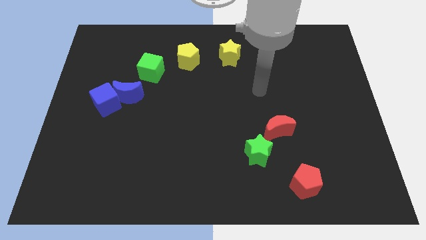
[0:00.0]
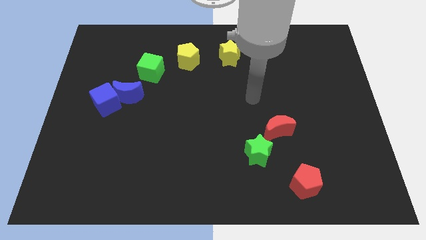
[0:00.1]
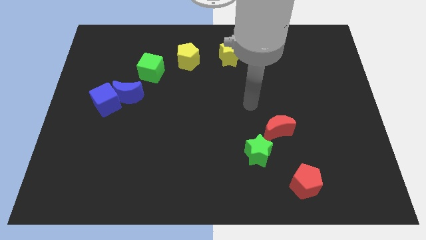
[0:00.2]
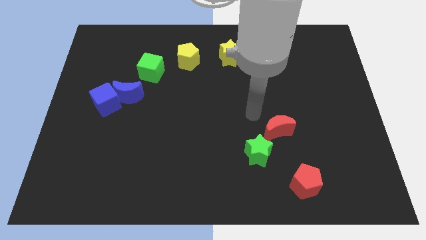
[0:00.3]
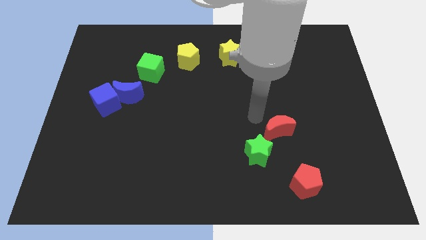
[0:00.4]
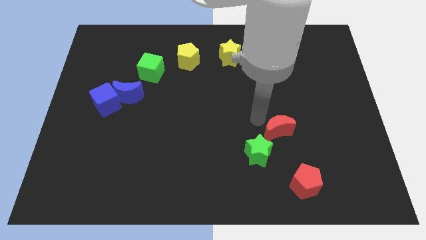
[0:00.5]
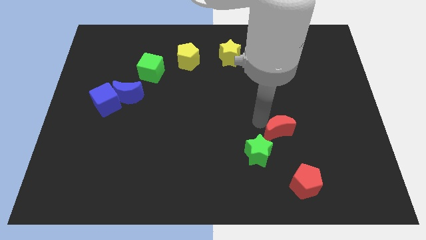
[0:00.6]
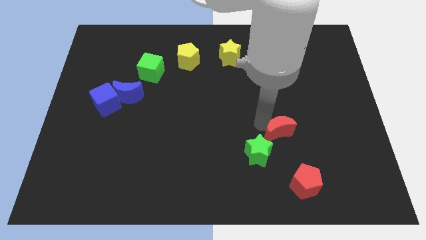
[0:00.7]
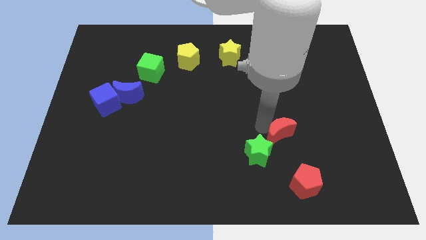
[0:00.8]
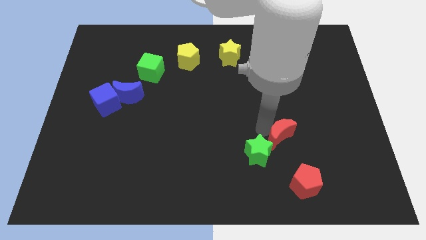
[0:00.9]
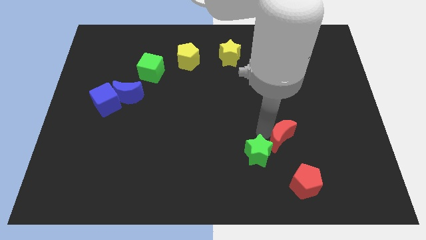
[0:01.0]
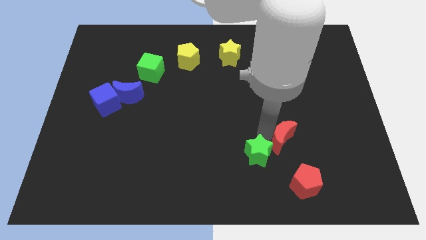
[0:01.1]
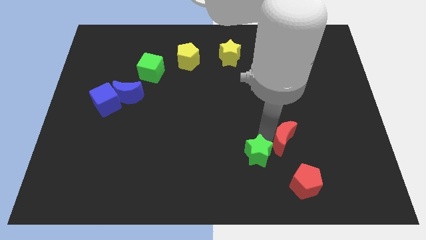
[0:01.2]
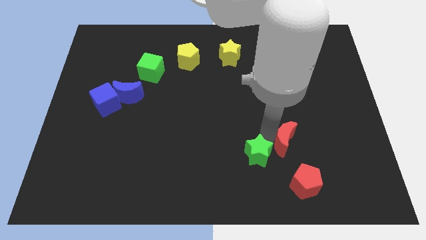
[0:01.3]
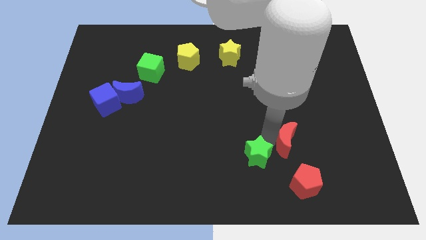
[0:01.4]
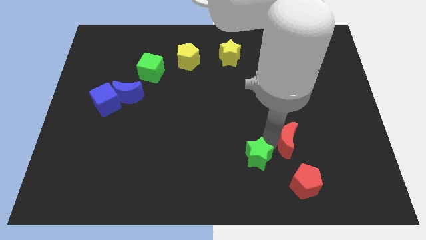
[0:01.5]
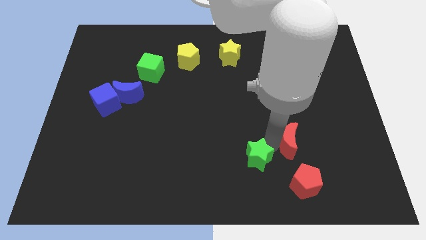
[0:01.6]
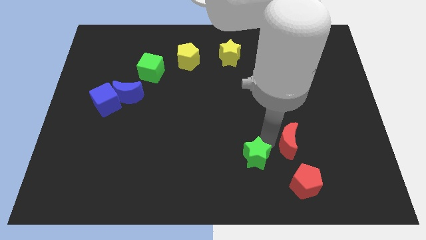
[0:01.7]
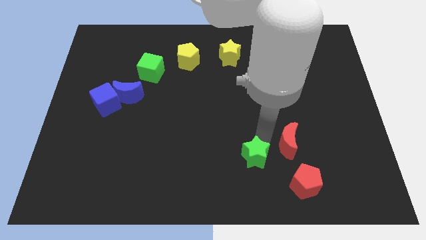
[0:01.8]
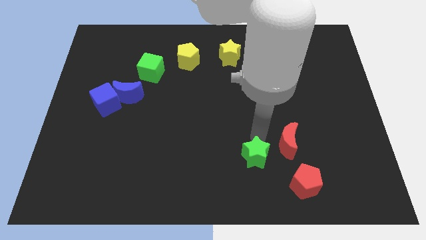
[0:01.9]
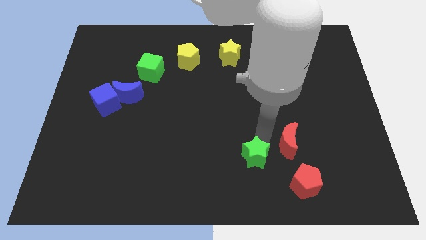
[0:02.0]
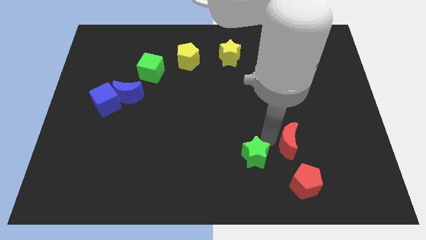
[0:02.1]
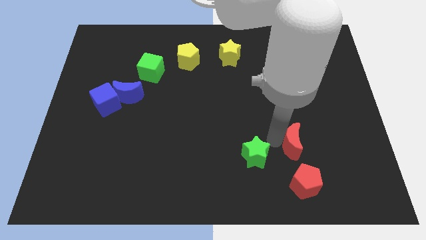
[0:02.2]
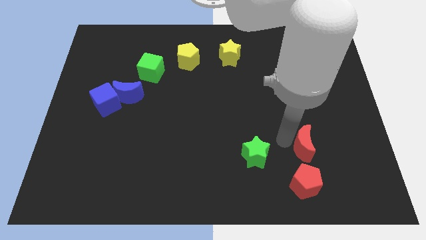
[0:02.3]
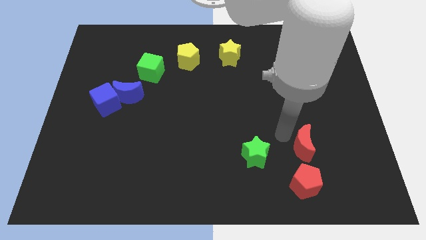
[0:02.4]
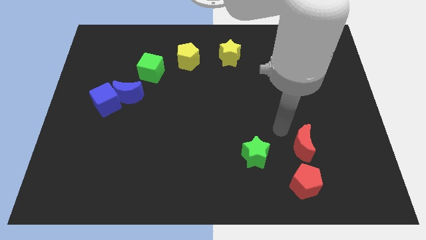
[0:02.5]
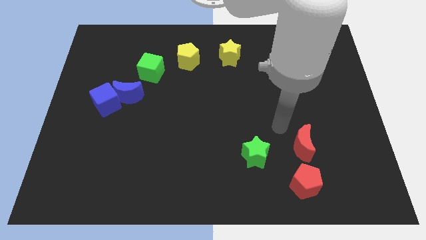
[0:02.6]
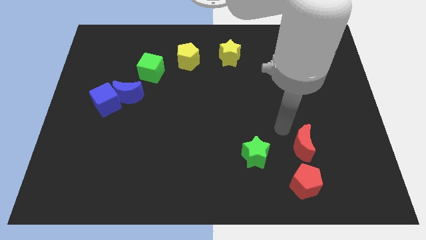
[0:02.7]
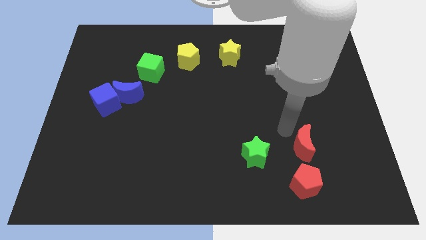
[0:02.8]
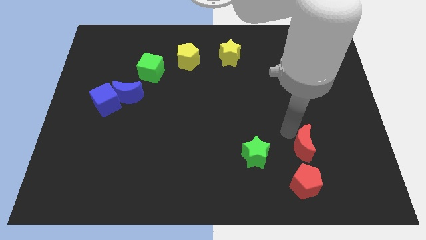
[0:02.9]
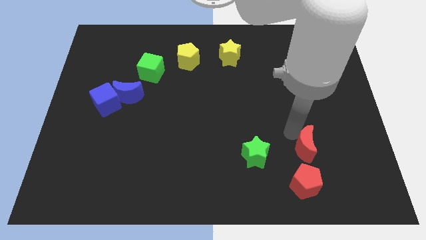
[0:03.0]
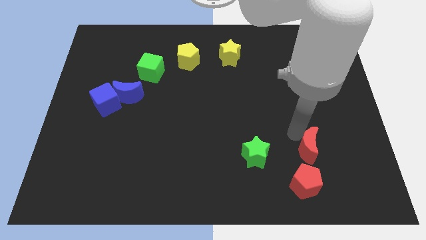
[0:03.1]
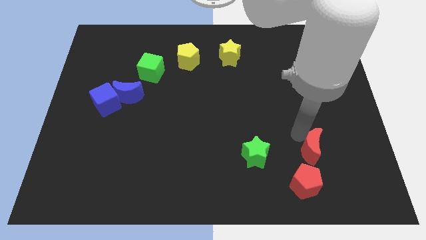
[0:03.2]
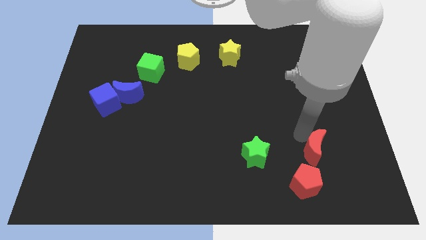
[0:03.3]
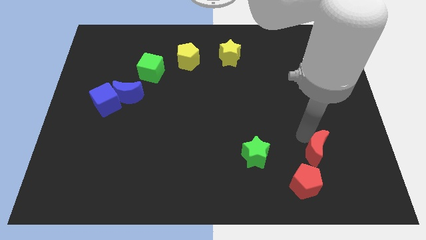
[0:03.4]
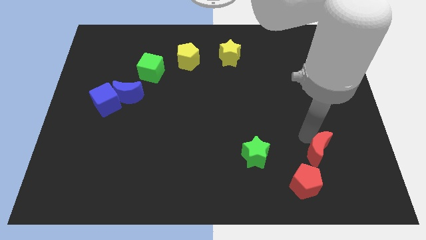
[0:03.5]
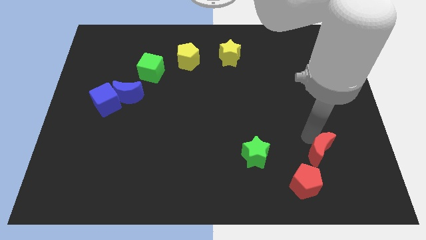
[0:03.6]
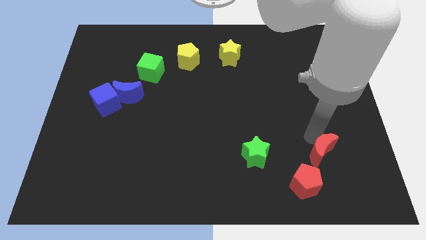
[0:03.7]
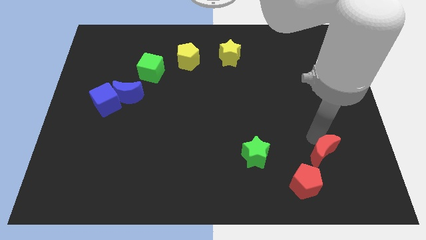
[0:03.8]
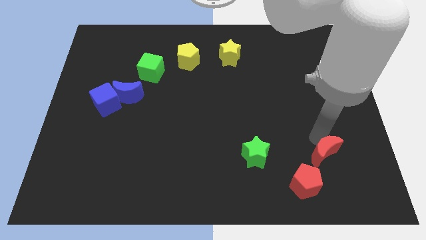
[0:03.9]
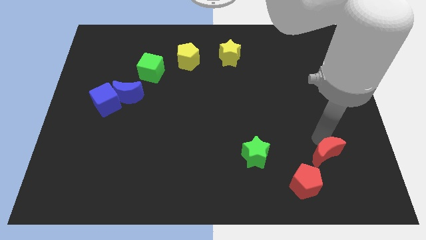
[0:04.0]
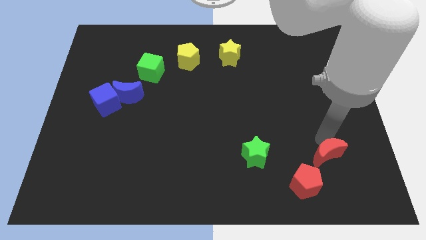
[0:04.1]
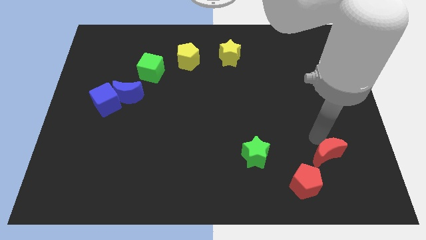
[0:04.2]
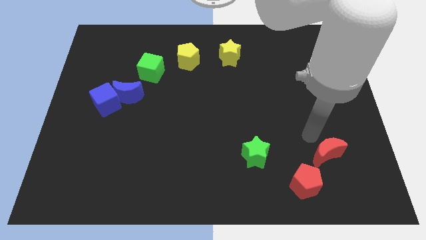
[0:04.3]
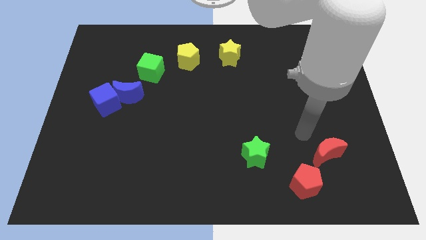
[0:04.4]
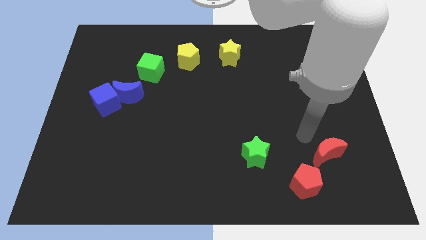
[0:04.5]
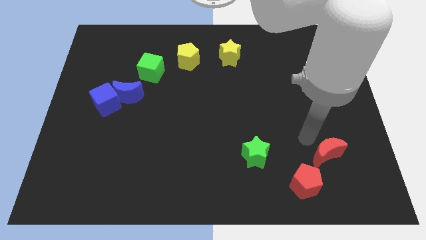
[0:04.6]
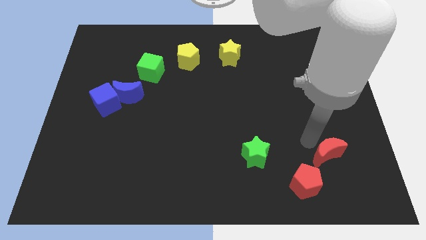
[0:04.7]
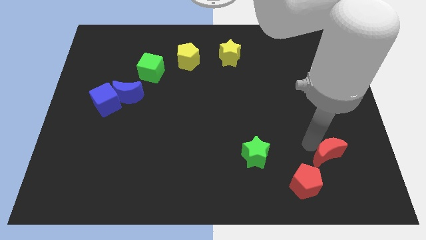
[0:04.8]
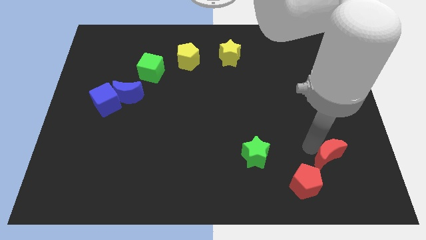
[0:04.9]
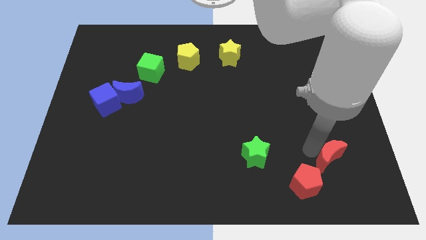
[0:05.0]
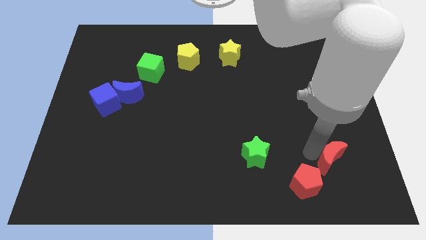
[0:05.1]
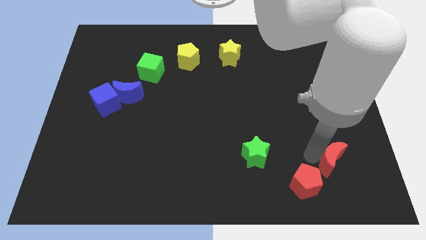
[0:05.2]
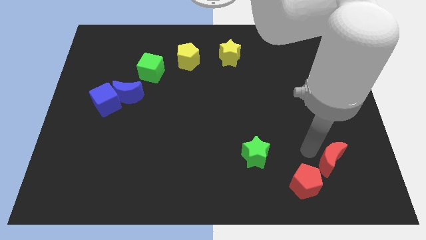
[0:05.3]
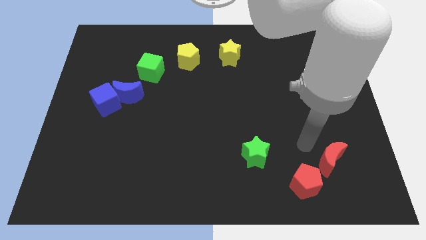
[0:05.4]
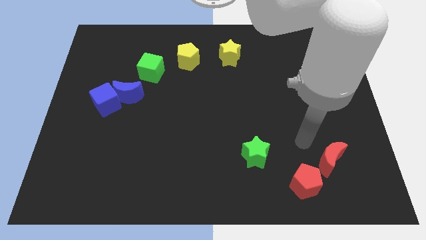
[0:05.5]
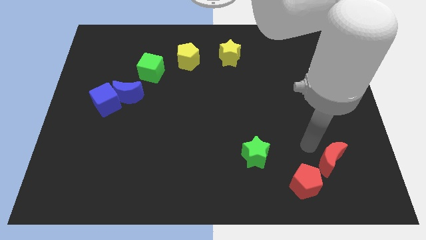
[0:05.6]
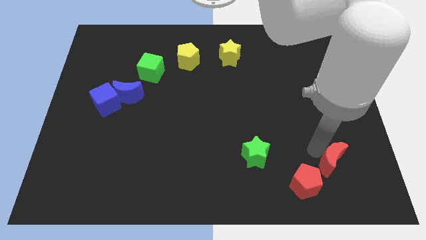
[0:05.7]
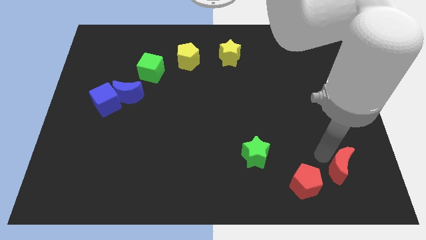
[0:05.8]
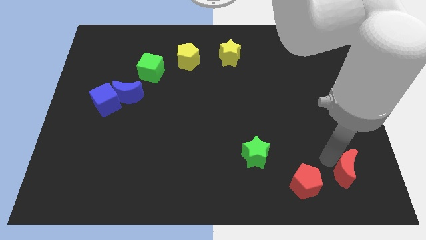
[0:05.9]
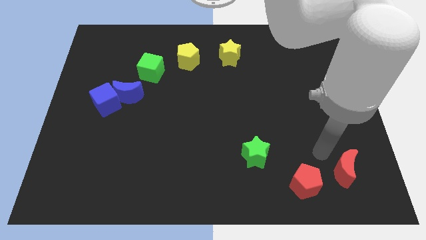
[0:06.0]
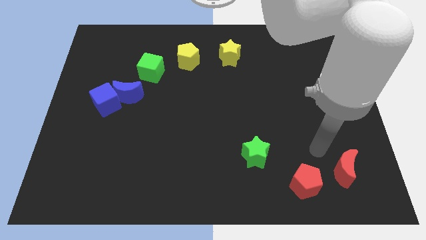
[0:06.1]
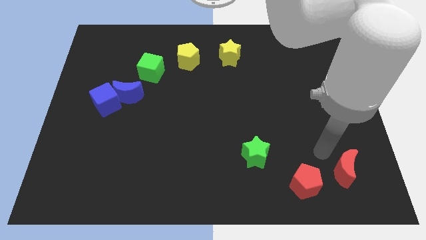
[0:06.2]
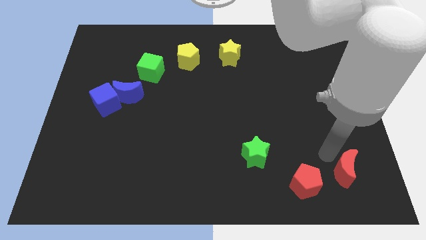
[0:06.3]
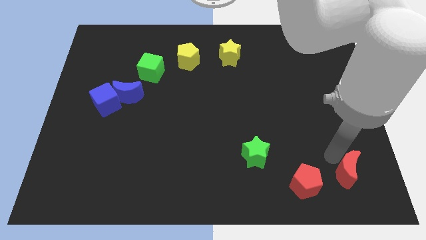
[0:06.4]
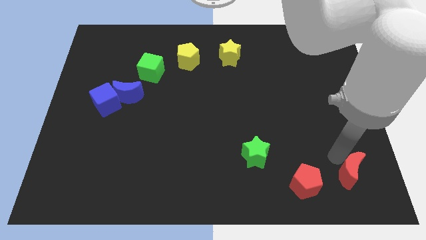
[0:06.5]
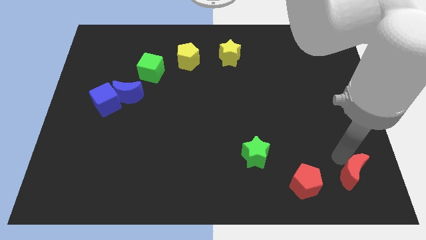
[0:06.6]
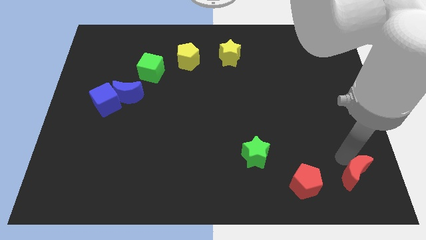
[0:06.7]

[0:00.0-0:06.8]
put the red moon to the bottom right
